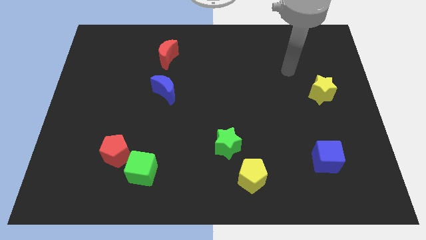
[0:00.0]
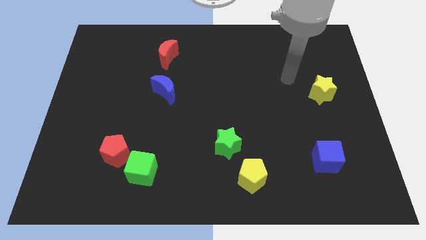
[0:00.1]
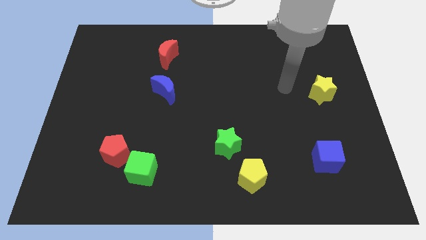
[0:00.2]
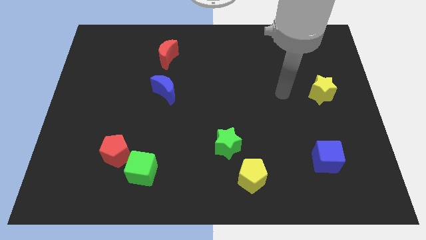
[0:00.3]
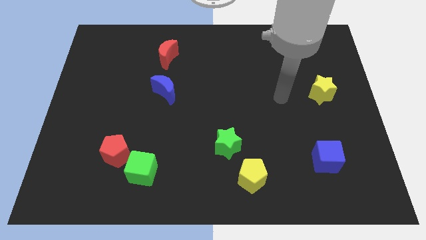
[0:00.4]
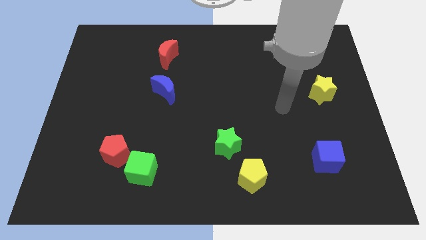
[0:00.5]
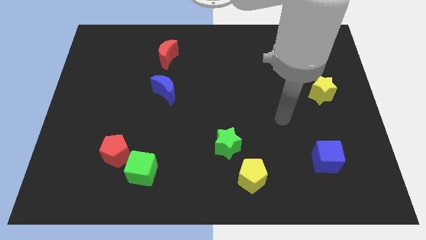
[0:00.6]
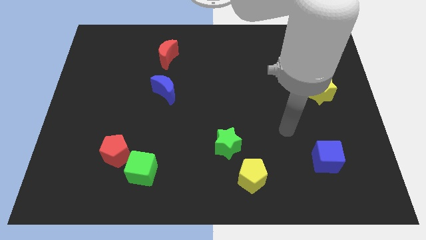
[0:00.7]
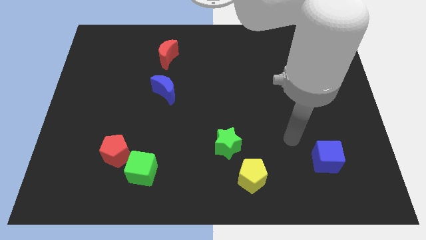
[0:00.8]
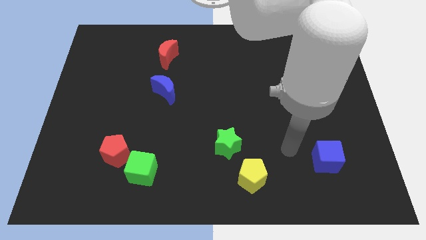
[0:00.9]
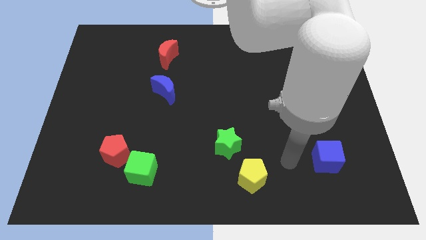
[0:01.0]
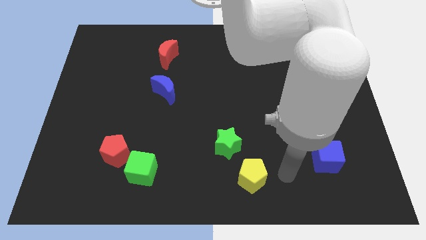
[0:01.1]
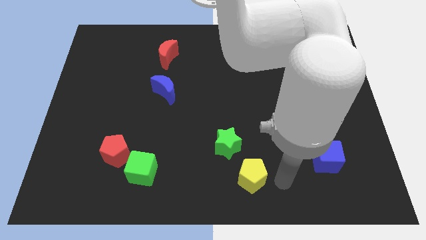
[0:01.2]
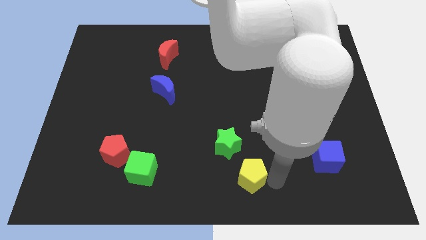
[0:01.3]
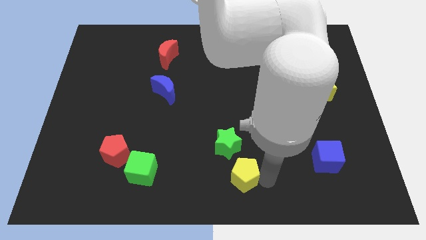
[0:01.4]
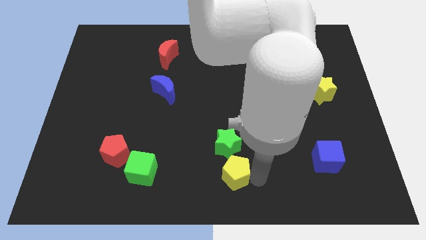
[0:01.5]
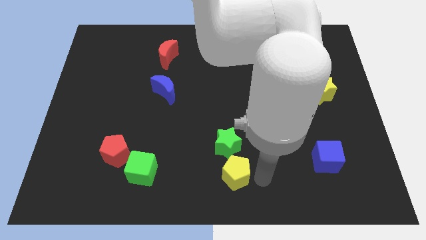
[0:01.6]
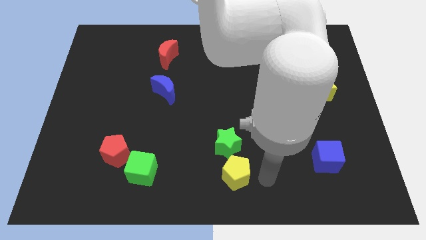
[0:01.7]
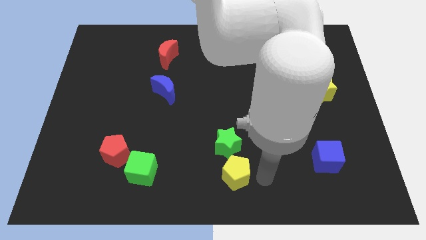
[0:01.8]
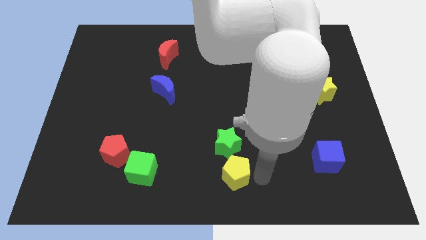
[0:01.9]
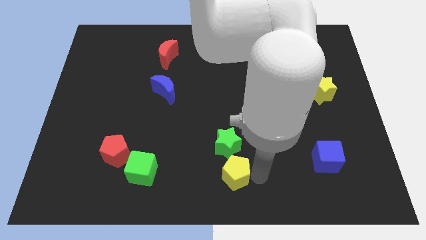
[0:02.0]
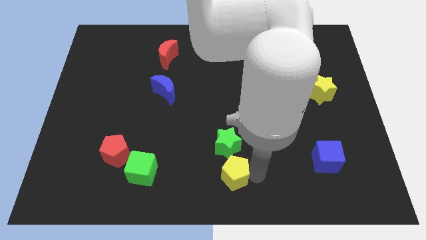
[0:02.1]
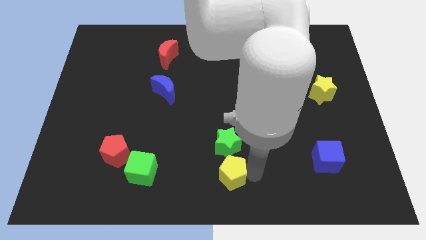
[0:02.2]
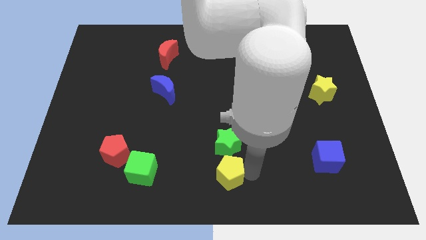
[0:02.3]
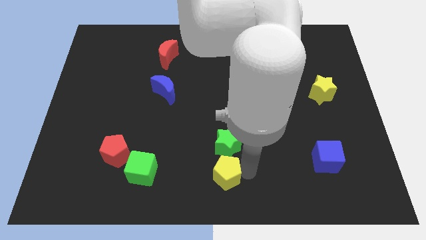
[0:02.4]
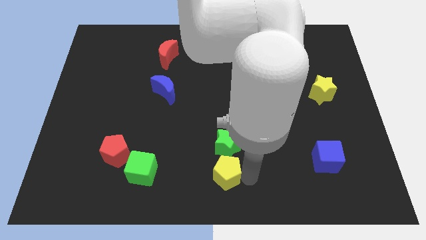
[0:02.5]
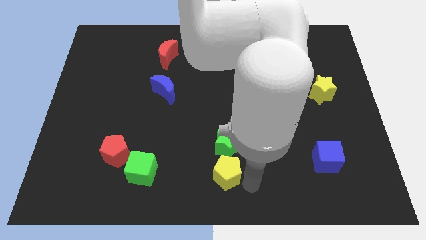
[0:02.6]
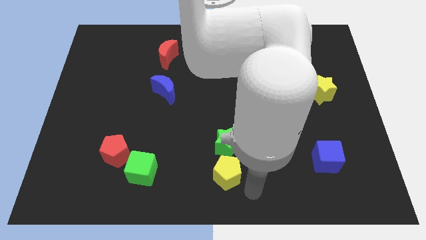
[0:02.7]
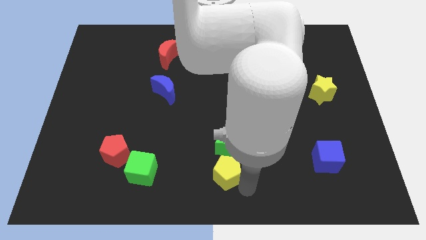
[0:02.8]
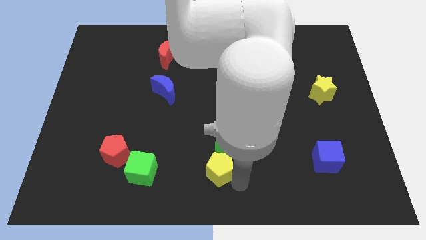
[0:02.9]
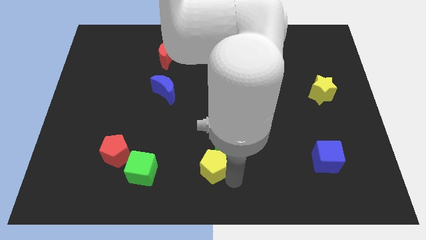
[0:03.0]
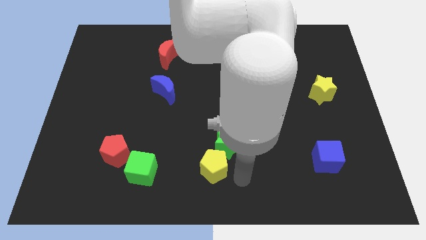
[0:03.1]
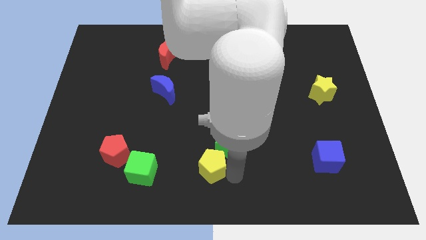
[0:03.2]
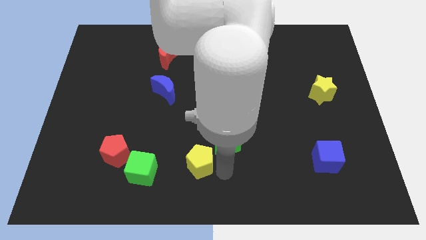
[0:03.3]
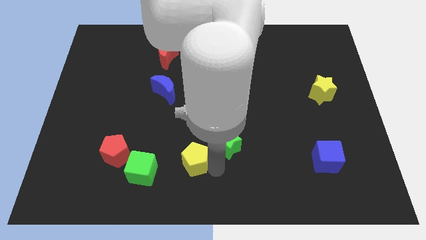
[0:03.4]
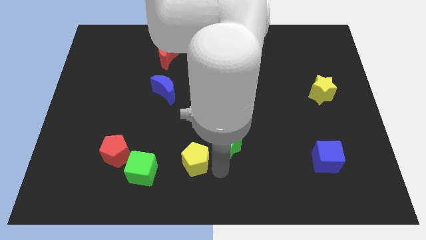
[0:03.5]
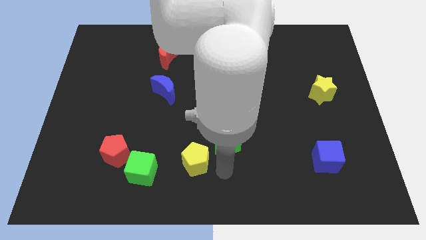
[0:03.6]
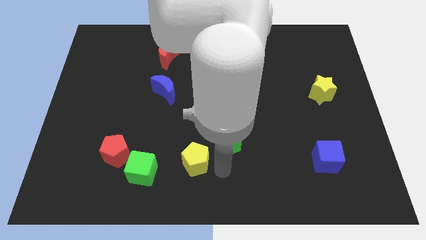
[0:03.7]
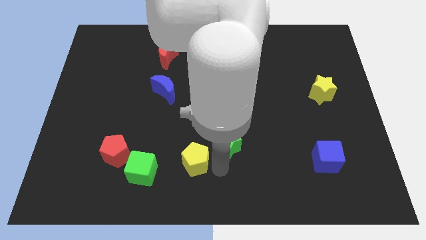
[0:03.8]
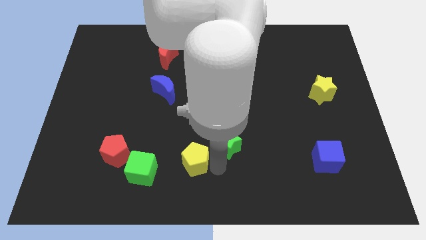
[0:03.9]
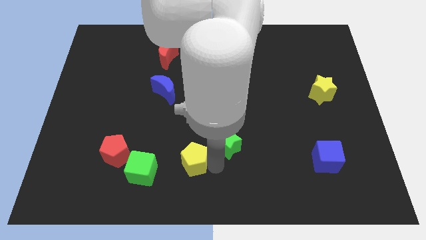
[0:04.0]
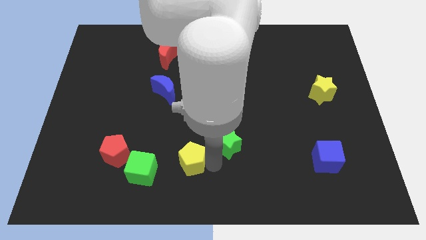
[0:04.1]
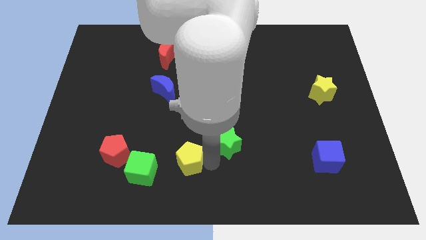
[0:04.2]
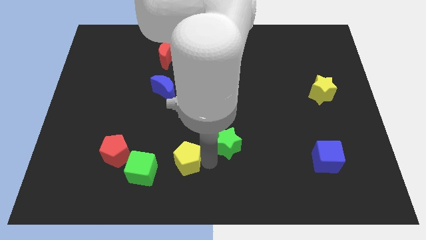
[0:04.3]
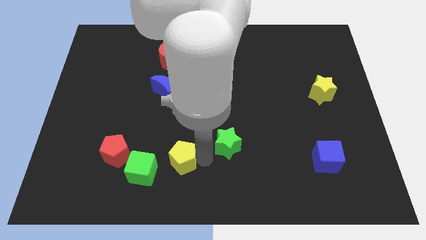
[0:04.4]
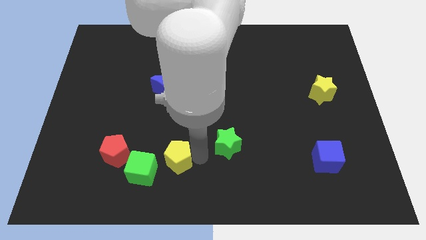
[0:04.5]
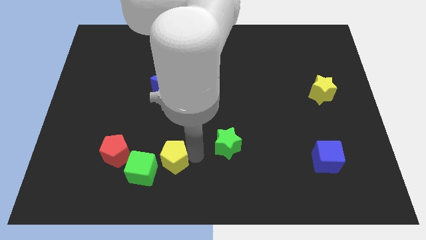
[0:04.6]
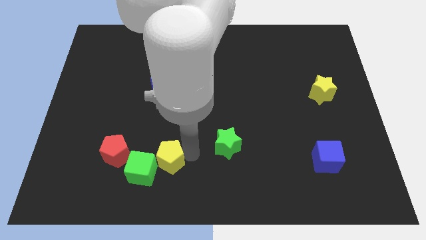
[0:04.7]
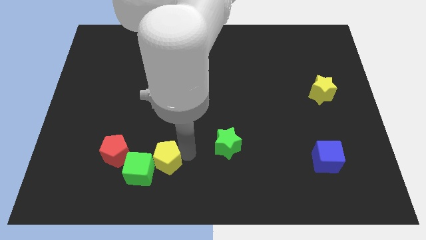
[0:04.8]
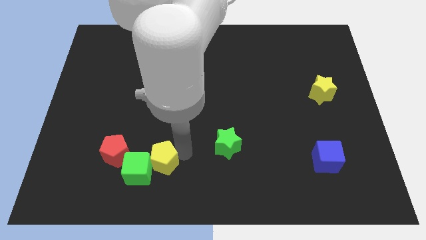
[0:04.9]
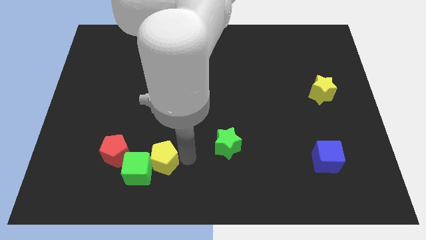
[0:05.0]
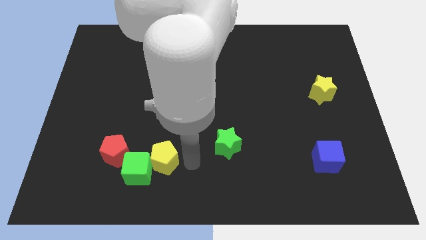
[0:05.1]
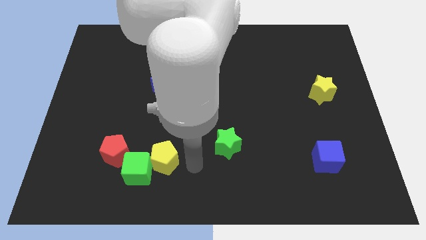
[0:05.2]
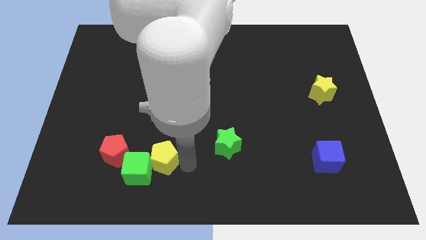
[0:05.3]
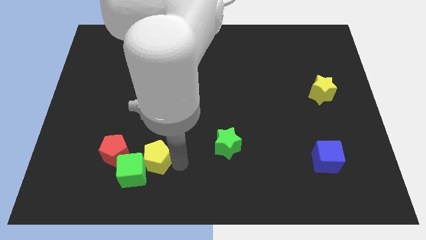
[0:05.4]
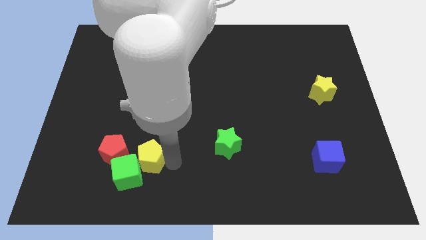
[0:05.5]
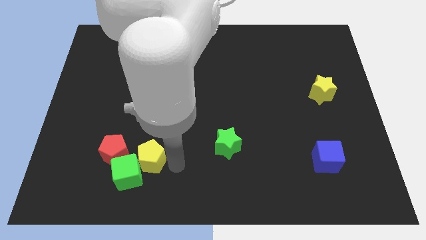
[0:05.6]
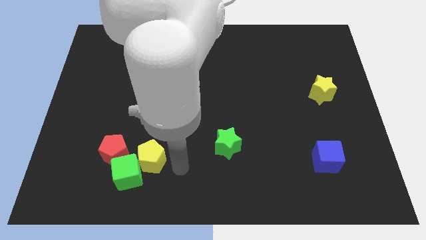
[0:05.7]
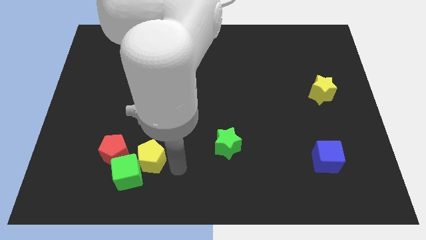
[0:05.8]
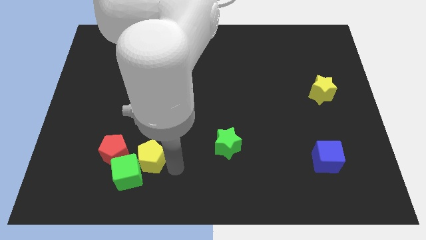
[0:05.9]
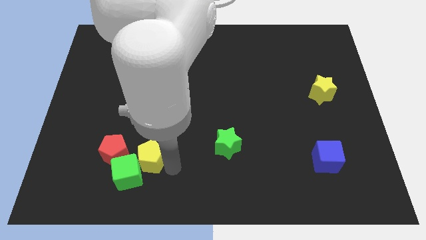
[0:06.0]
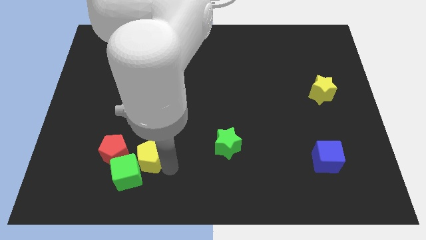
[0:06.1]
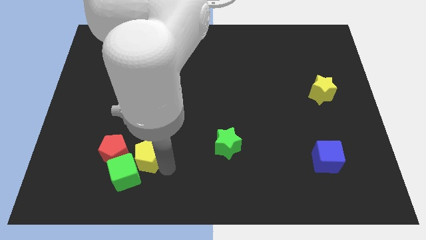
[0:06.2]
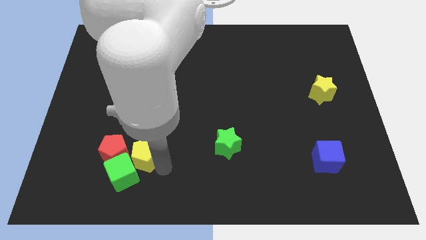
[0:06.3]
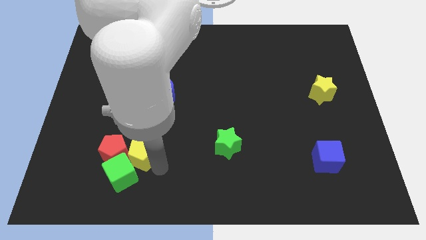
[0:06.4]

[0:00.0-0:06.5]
put the yellow pentagon next to the red pentagon
